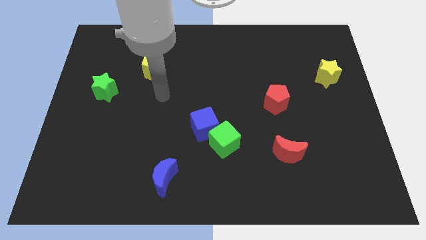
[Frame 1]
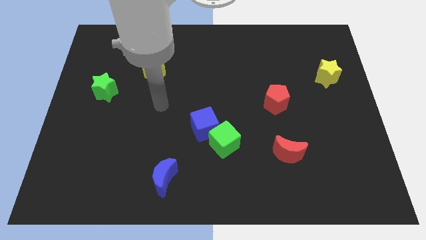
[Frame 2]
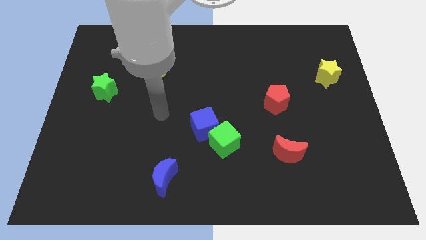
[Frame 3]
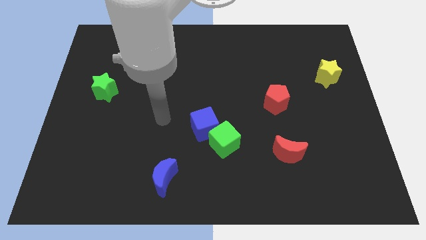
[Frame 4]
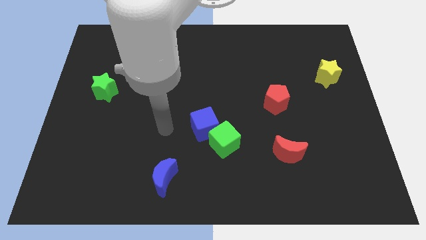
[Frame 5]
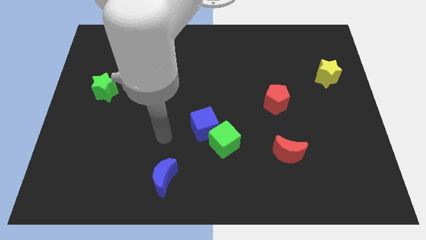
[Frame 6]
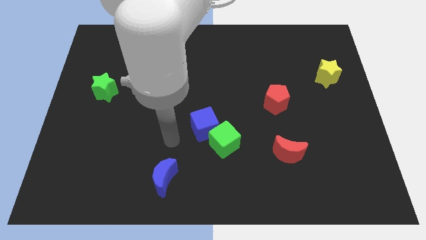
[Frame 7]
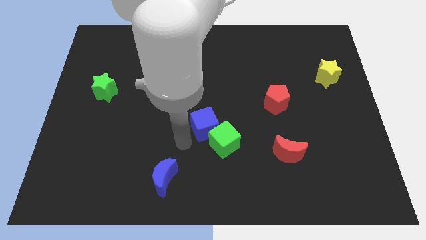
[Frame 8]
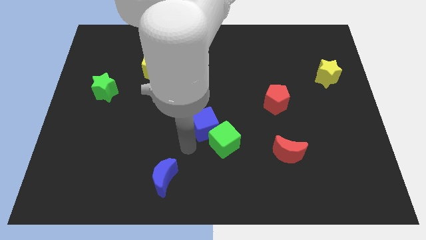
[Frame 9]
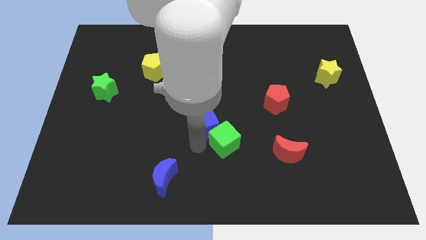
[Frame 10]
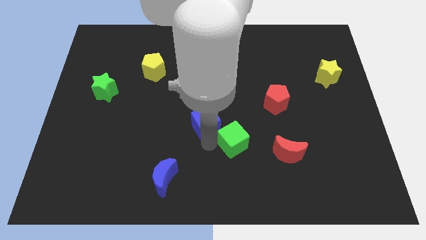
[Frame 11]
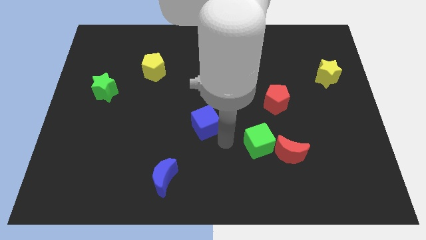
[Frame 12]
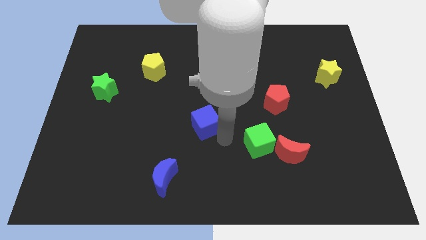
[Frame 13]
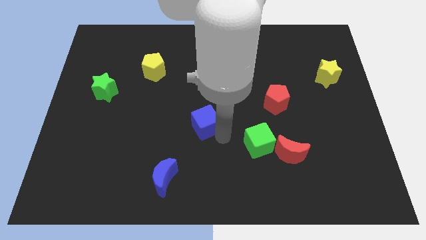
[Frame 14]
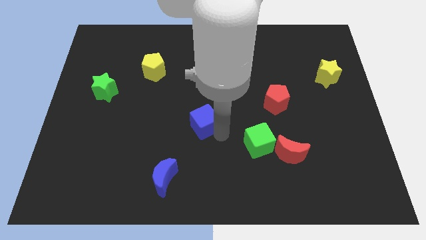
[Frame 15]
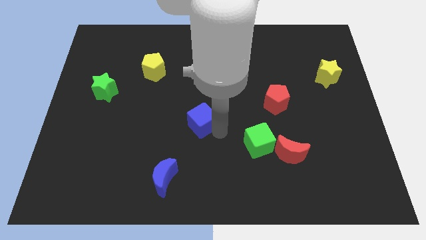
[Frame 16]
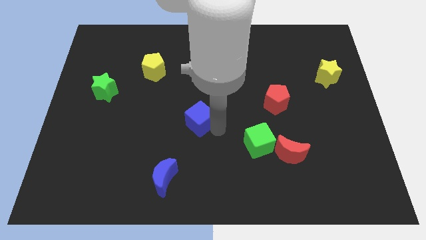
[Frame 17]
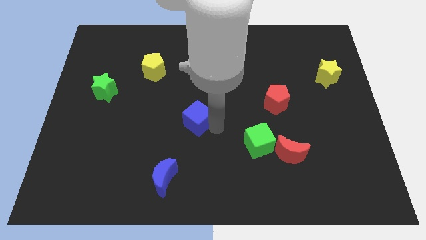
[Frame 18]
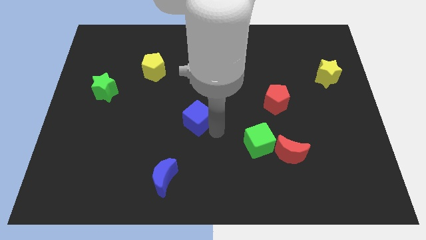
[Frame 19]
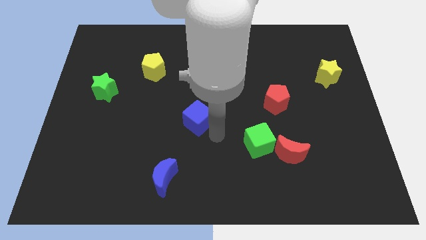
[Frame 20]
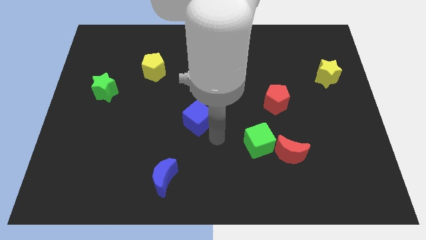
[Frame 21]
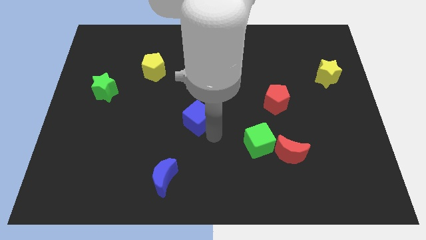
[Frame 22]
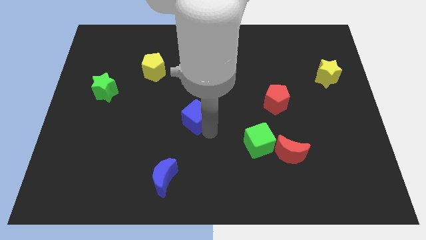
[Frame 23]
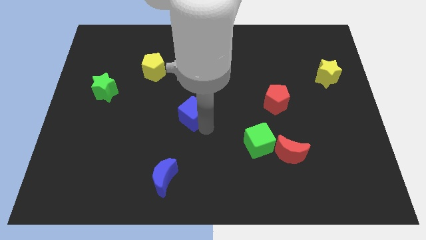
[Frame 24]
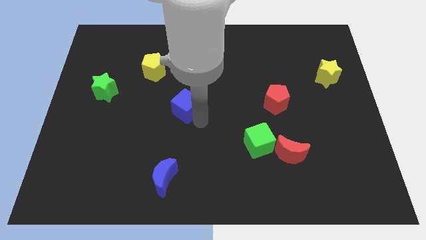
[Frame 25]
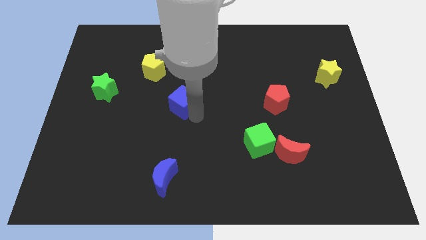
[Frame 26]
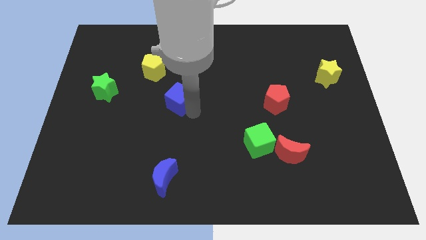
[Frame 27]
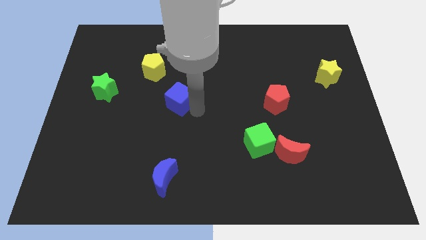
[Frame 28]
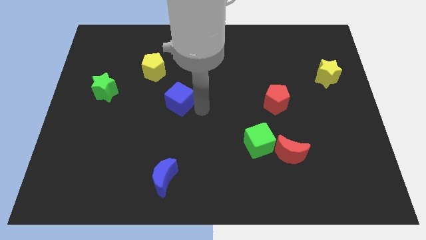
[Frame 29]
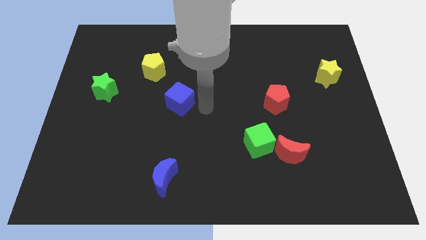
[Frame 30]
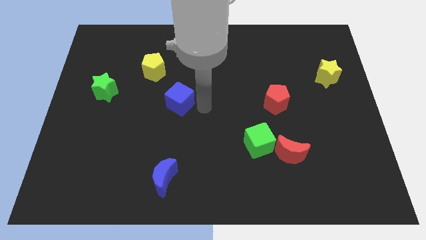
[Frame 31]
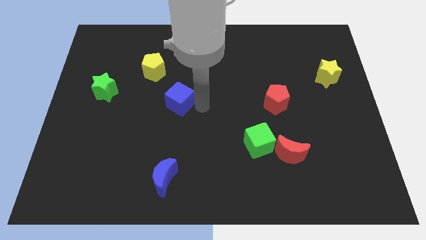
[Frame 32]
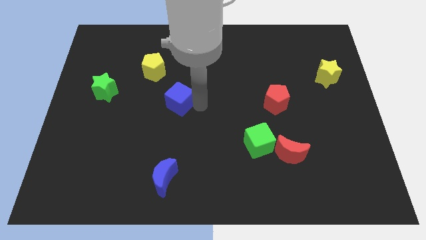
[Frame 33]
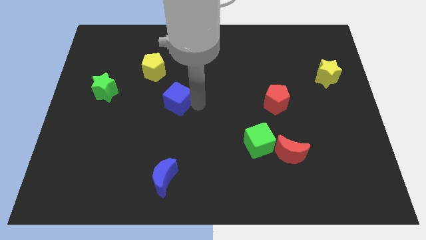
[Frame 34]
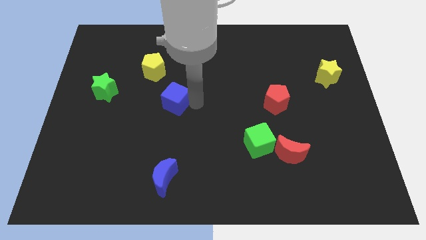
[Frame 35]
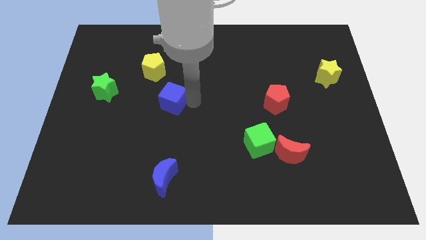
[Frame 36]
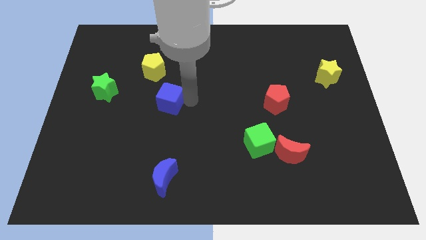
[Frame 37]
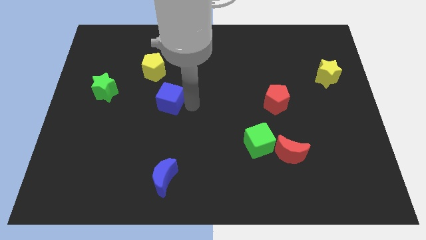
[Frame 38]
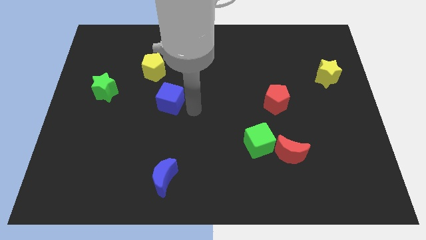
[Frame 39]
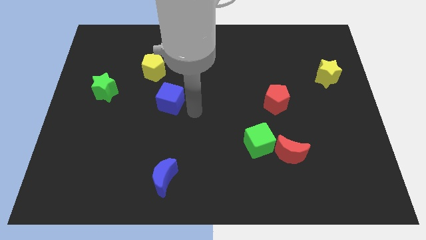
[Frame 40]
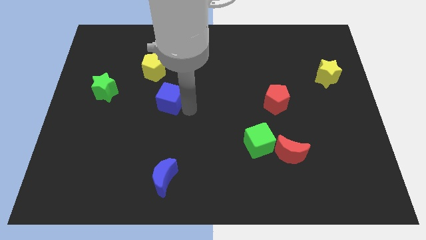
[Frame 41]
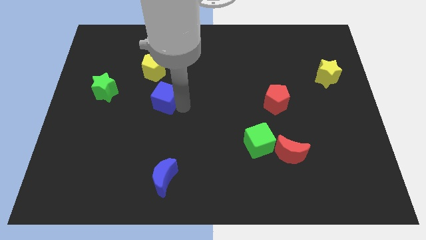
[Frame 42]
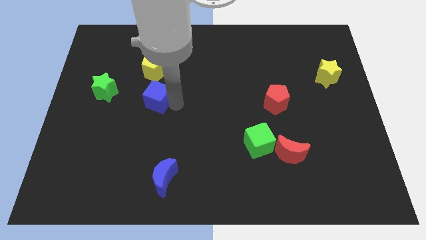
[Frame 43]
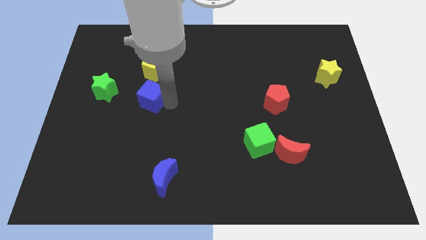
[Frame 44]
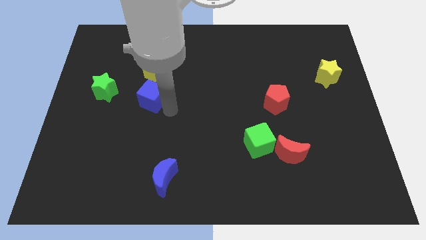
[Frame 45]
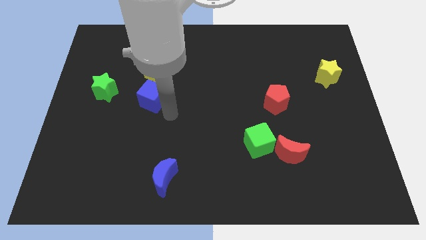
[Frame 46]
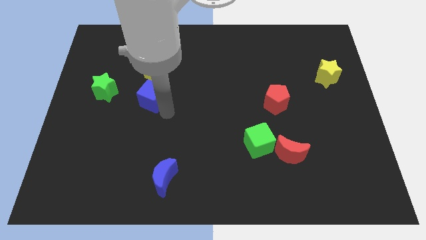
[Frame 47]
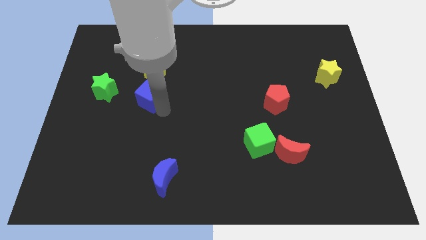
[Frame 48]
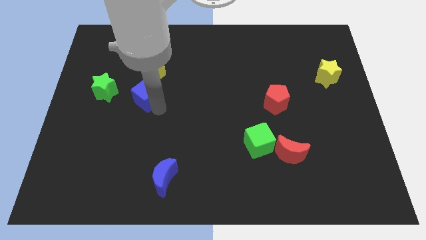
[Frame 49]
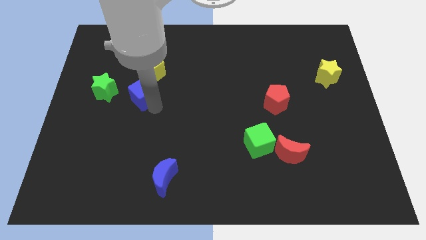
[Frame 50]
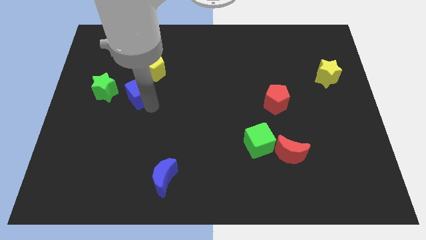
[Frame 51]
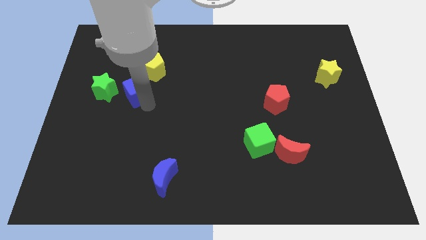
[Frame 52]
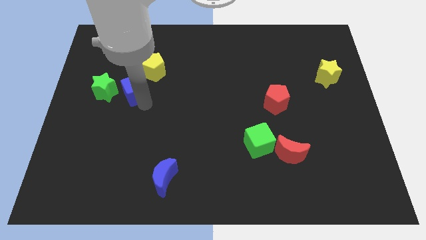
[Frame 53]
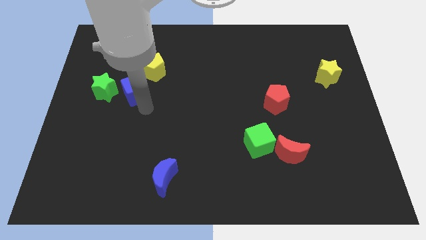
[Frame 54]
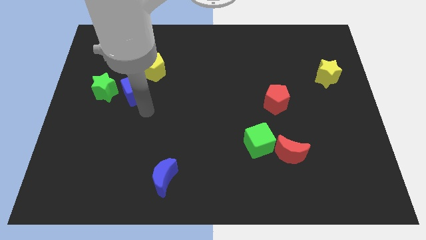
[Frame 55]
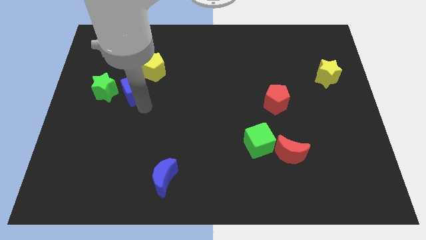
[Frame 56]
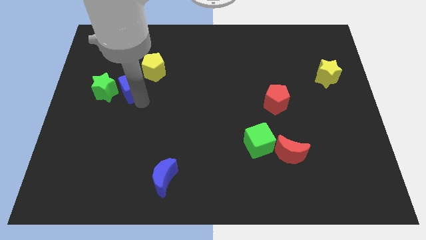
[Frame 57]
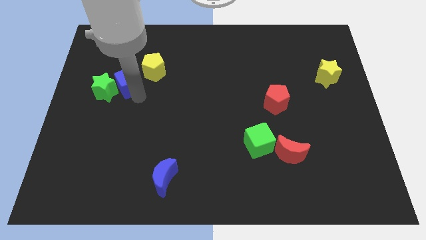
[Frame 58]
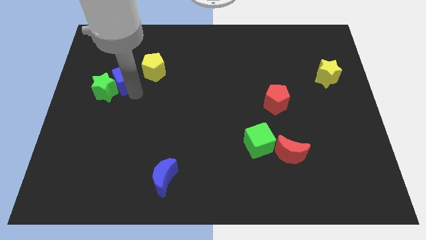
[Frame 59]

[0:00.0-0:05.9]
move the blue cube to the left of the yellow pentagon
